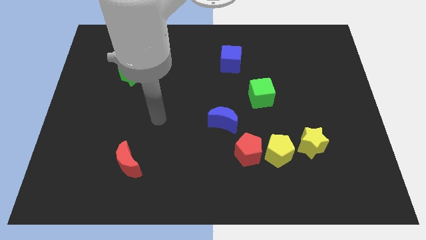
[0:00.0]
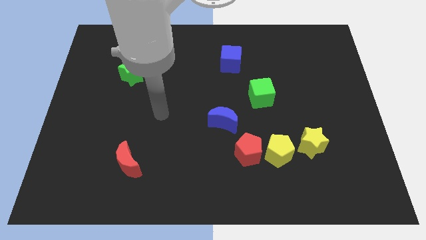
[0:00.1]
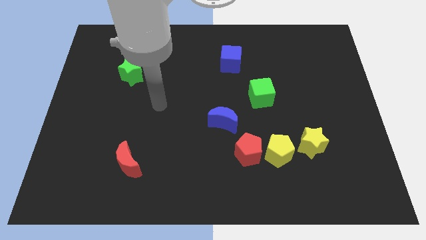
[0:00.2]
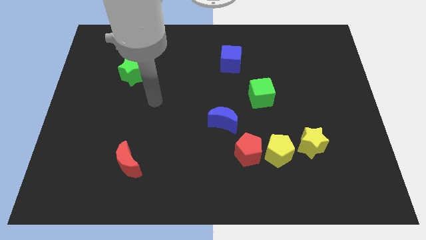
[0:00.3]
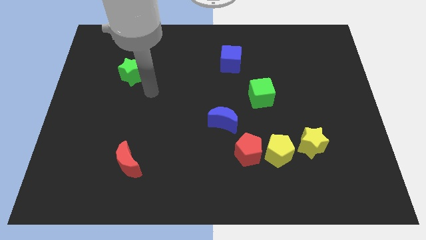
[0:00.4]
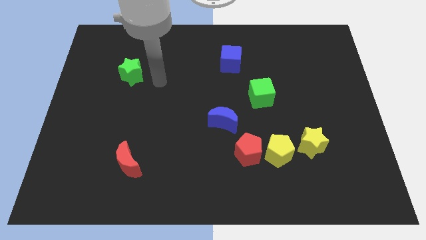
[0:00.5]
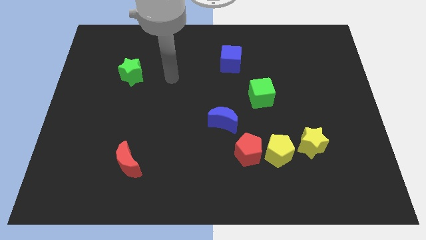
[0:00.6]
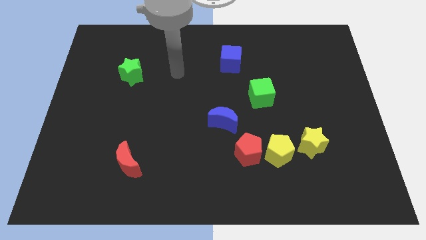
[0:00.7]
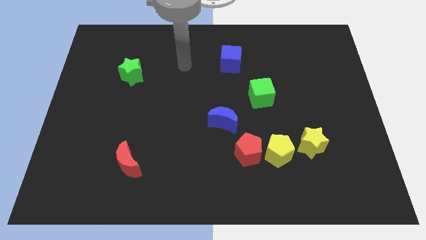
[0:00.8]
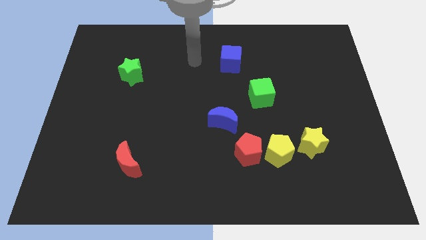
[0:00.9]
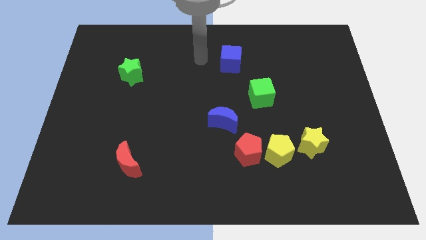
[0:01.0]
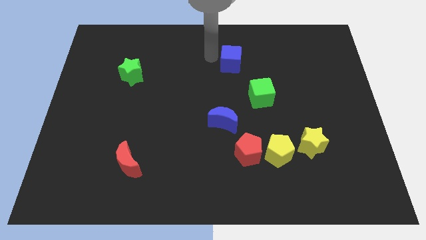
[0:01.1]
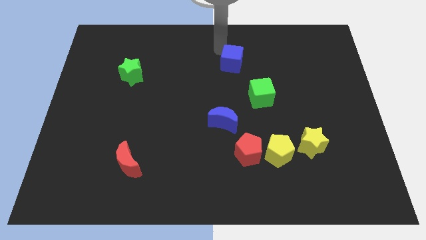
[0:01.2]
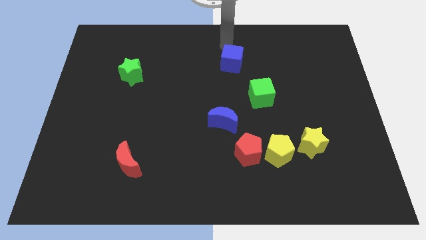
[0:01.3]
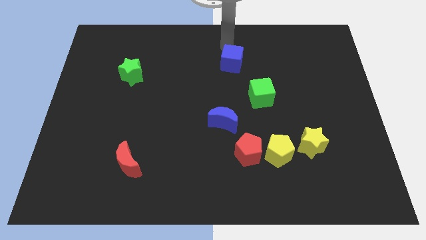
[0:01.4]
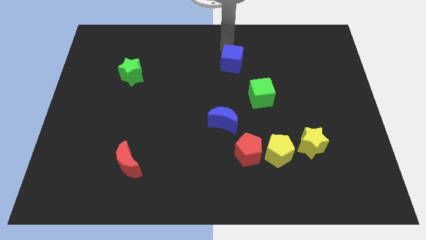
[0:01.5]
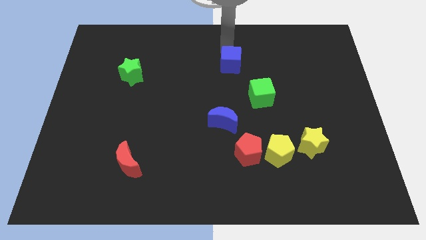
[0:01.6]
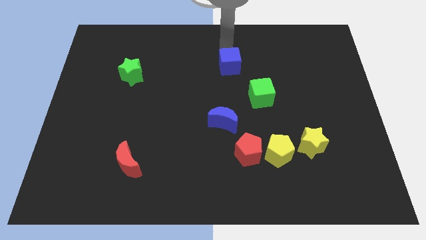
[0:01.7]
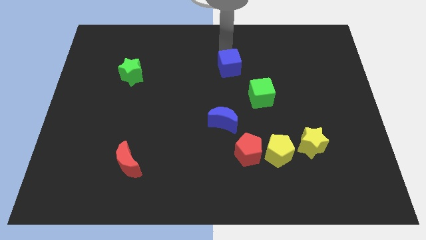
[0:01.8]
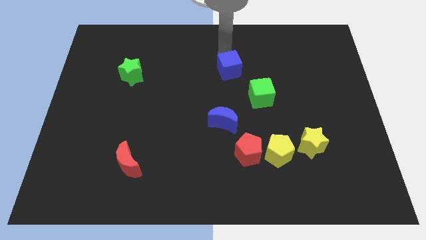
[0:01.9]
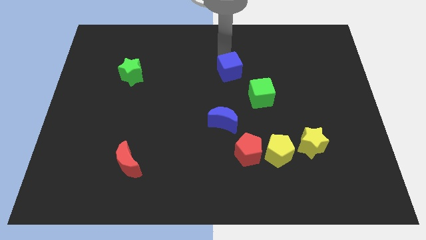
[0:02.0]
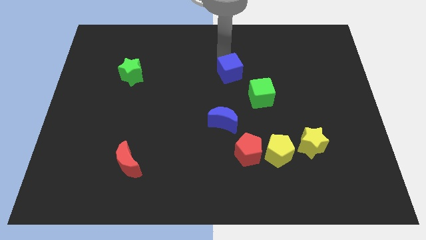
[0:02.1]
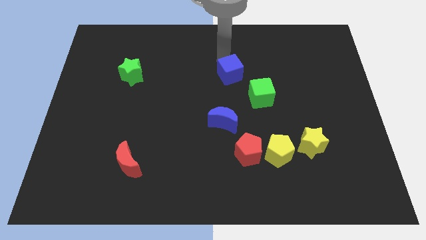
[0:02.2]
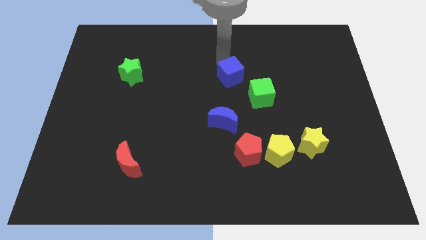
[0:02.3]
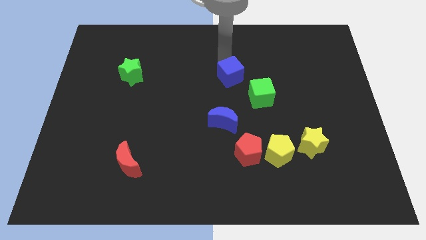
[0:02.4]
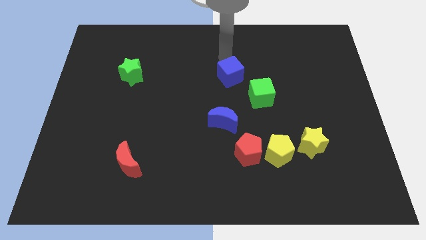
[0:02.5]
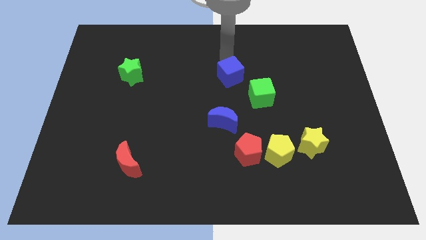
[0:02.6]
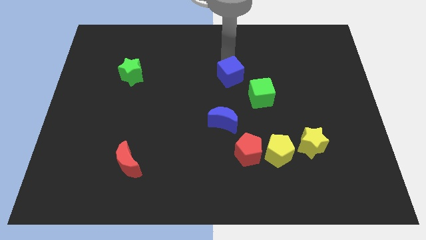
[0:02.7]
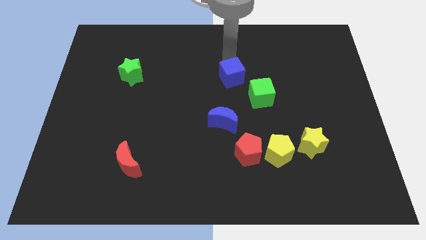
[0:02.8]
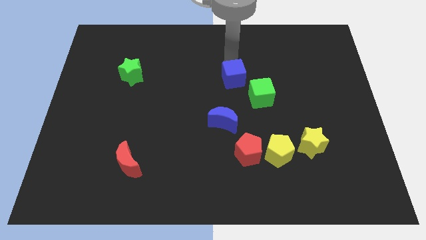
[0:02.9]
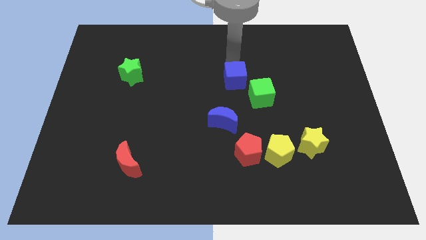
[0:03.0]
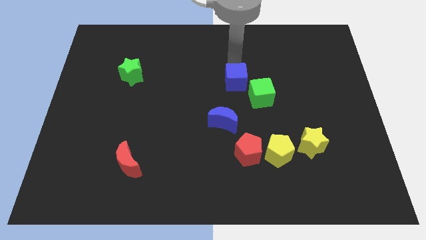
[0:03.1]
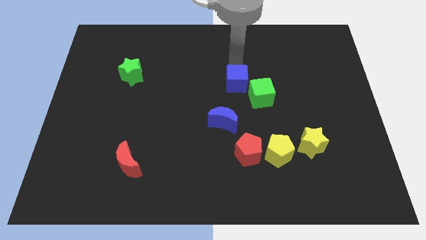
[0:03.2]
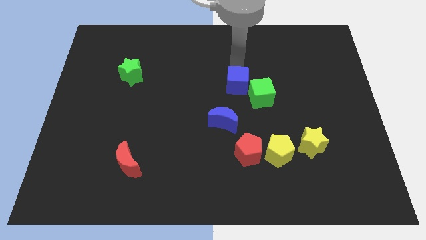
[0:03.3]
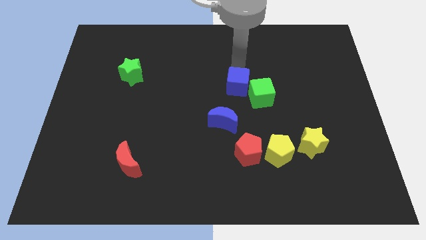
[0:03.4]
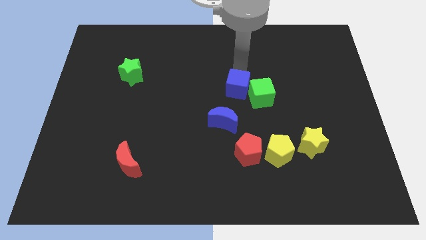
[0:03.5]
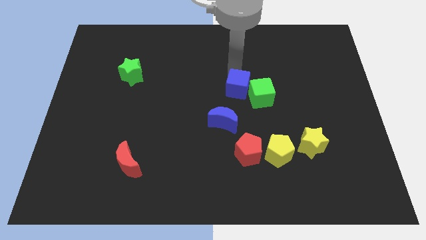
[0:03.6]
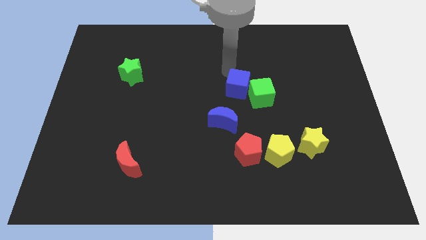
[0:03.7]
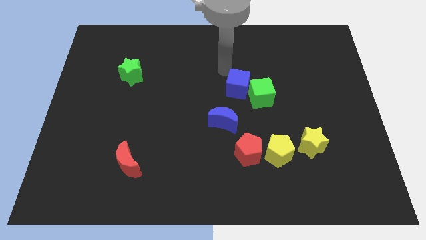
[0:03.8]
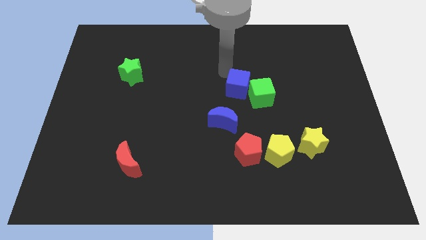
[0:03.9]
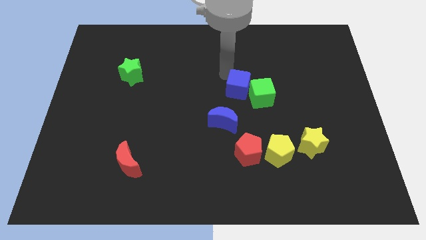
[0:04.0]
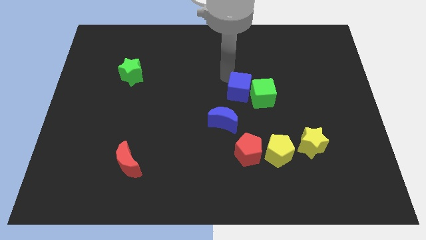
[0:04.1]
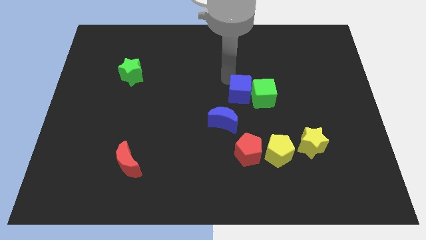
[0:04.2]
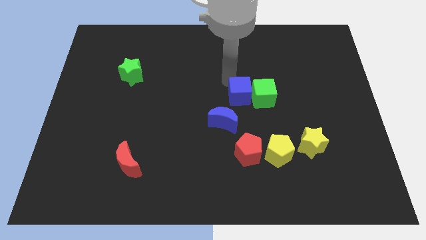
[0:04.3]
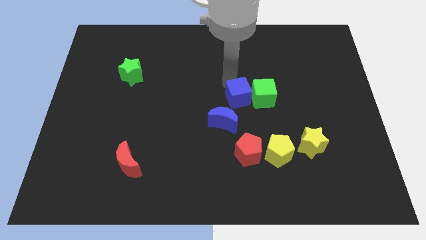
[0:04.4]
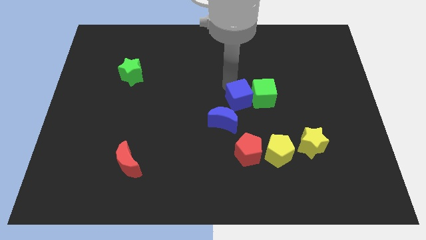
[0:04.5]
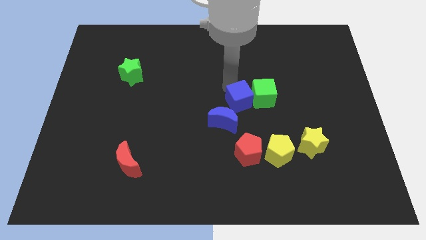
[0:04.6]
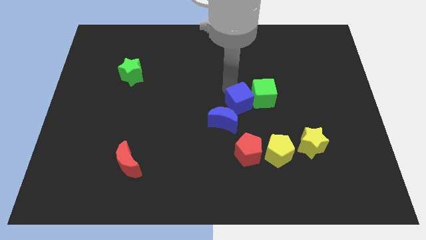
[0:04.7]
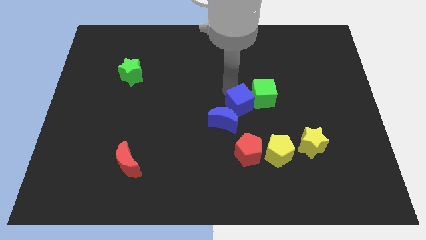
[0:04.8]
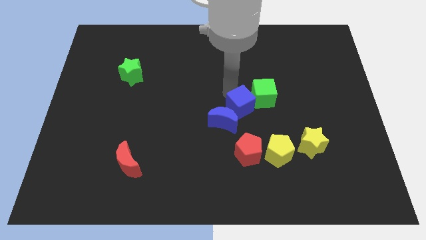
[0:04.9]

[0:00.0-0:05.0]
put the blue cube right of the blue moon

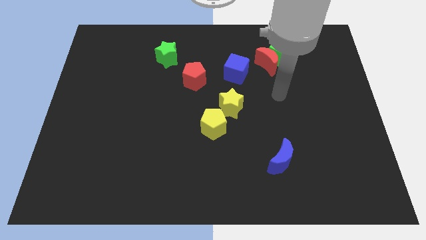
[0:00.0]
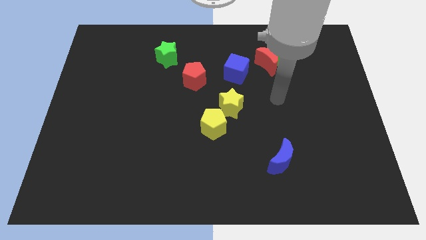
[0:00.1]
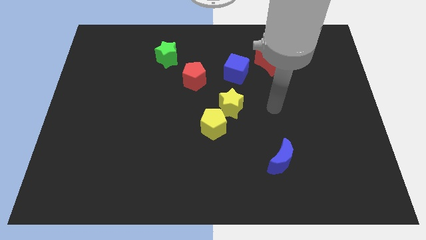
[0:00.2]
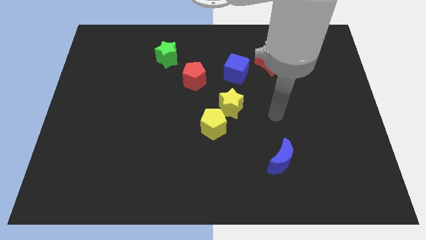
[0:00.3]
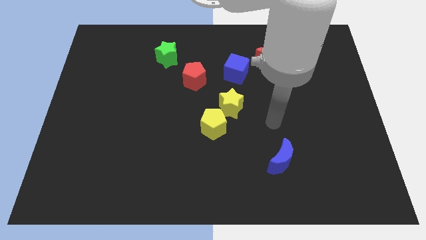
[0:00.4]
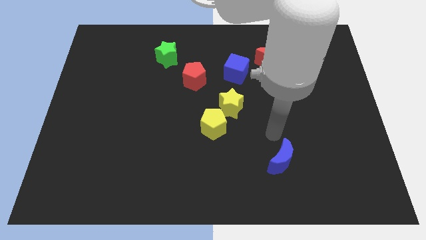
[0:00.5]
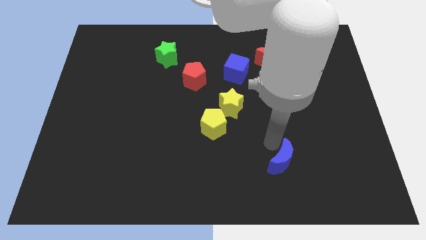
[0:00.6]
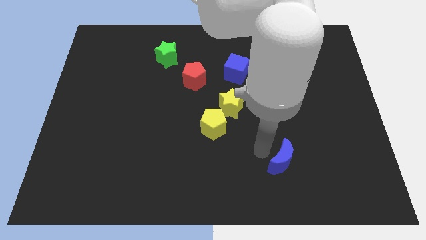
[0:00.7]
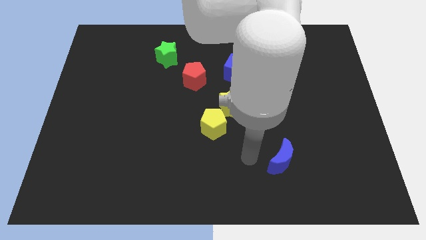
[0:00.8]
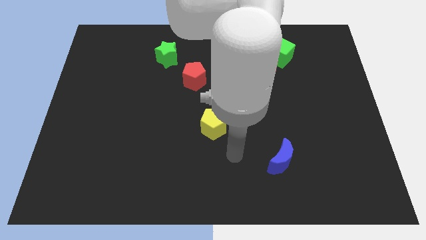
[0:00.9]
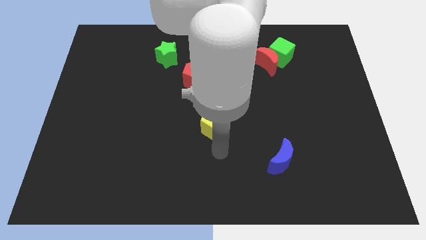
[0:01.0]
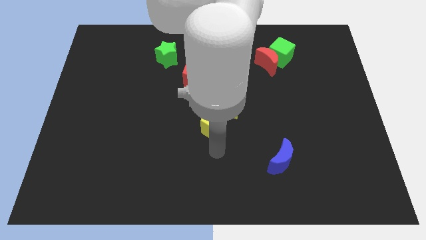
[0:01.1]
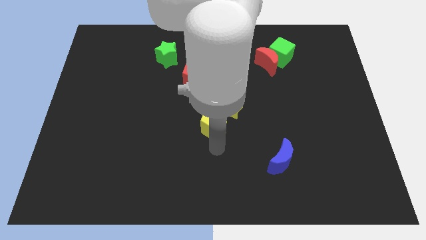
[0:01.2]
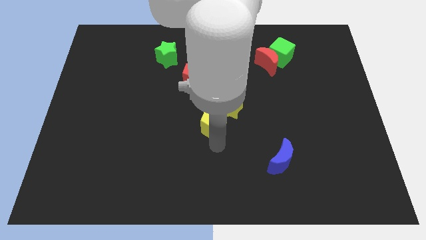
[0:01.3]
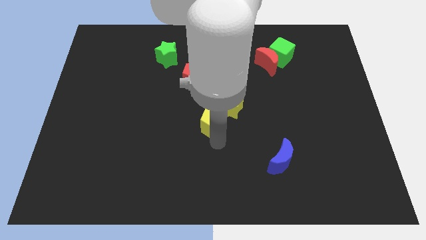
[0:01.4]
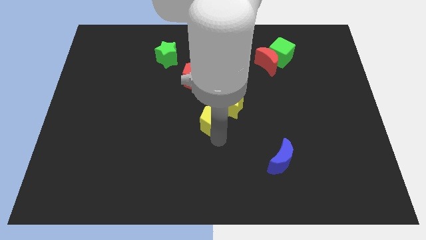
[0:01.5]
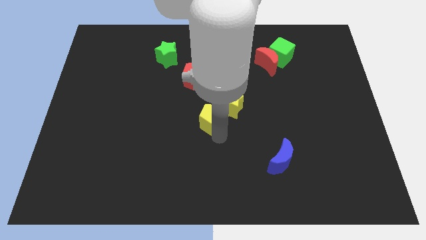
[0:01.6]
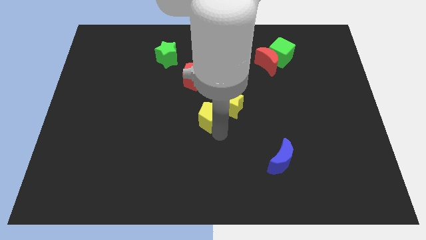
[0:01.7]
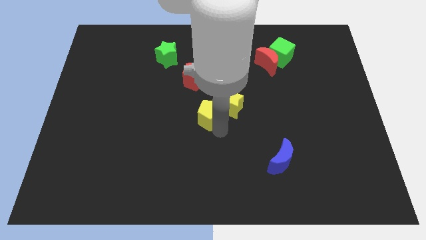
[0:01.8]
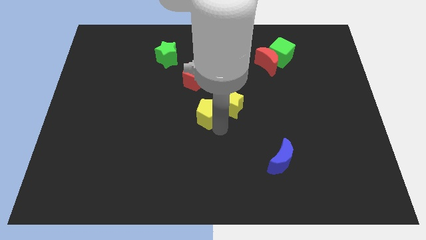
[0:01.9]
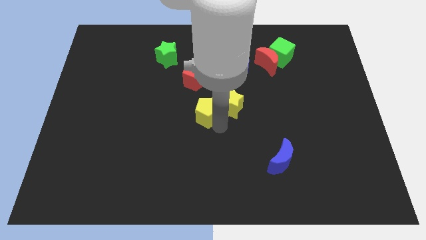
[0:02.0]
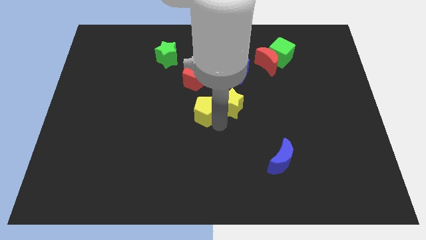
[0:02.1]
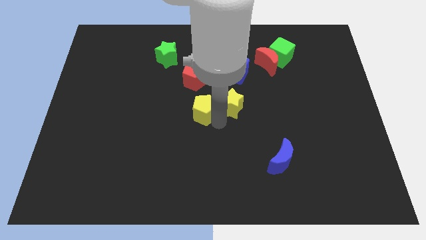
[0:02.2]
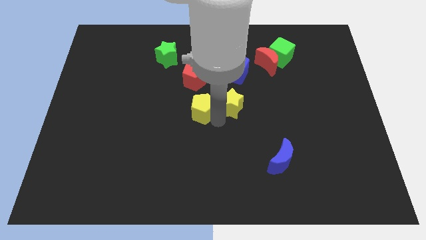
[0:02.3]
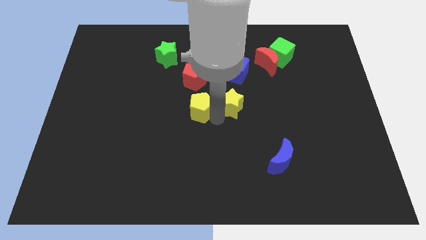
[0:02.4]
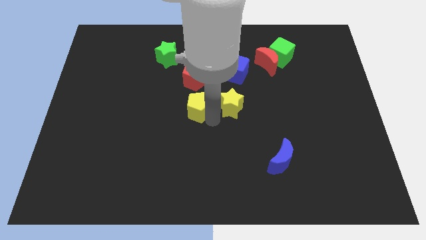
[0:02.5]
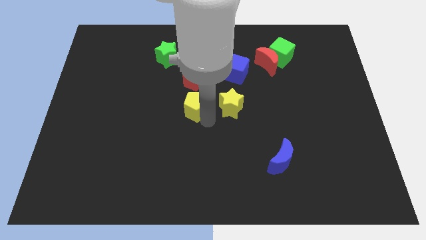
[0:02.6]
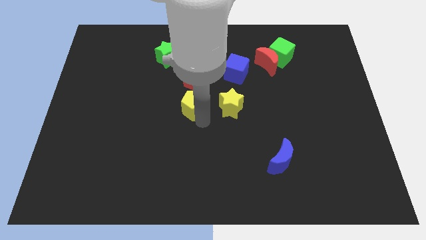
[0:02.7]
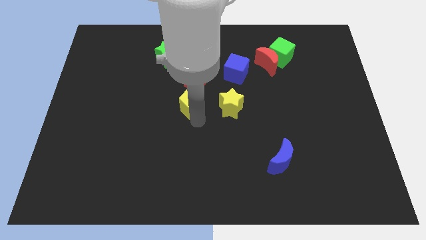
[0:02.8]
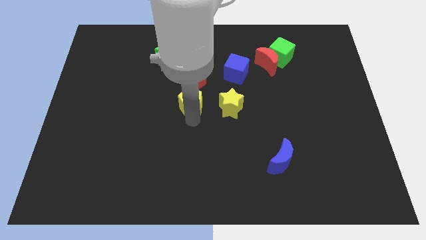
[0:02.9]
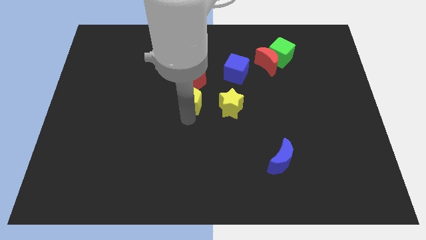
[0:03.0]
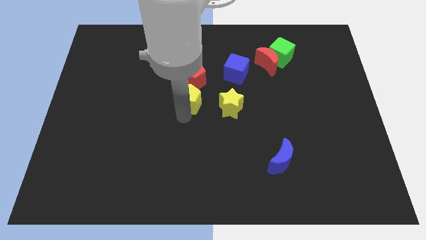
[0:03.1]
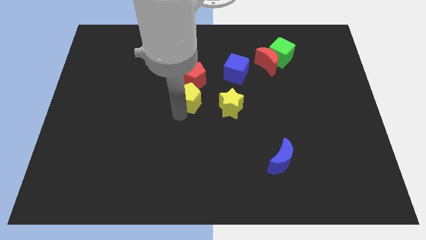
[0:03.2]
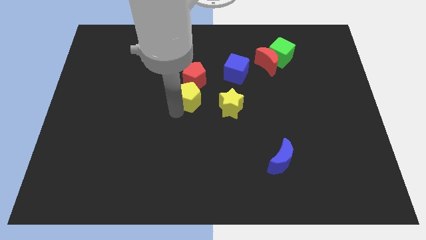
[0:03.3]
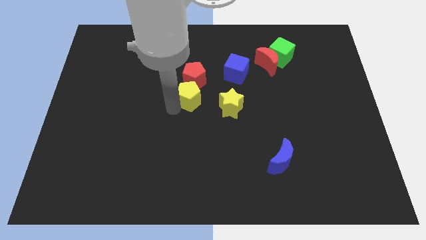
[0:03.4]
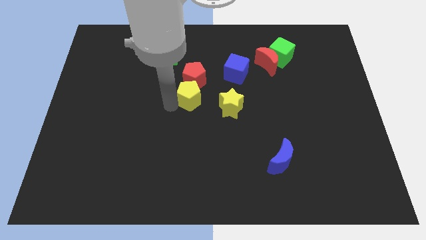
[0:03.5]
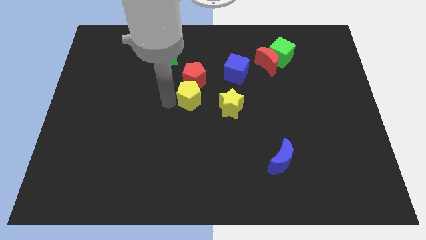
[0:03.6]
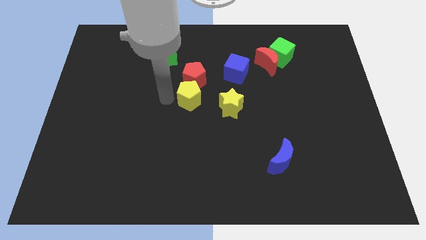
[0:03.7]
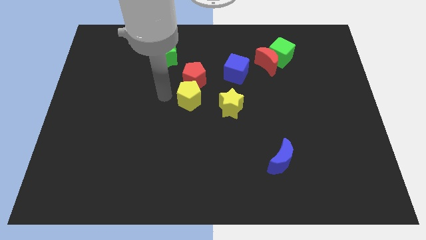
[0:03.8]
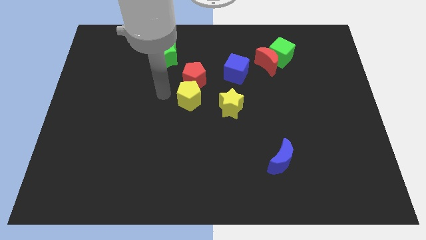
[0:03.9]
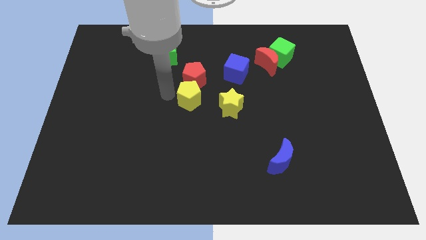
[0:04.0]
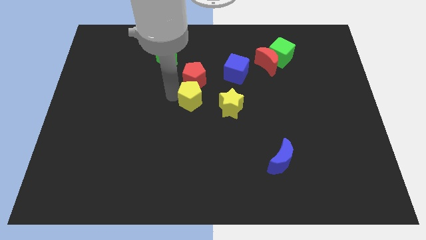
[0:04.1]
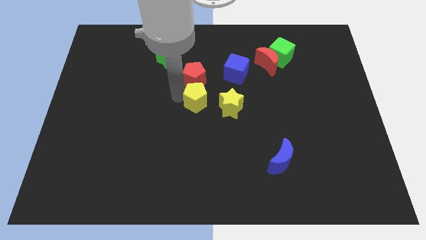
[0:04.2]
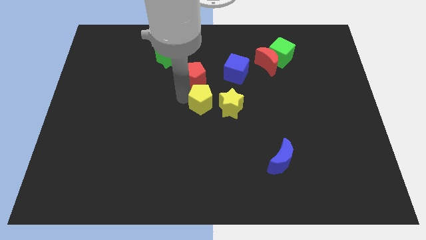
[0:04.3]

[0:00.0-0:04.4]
push the yellow pentagon diagonally down and to the left of the blue cube
